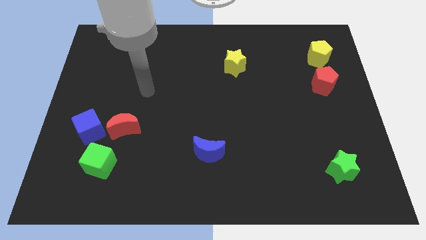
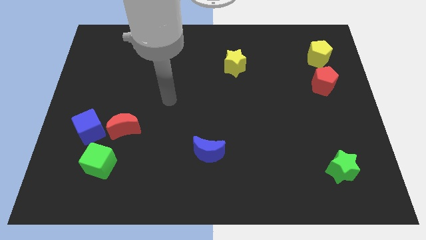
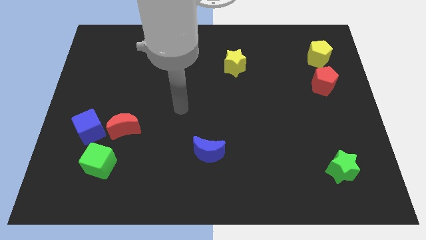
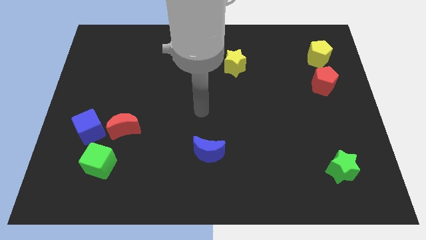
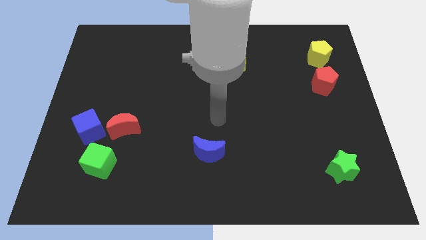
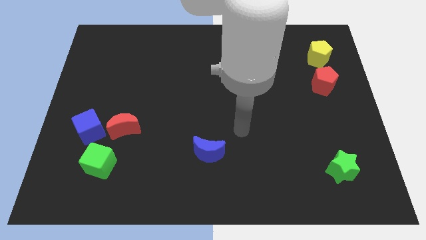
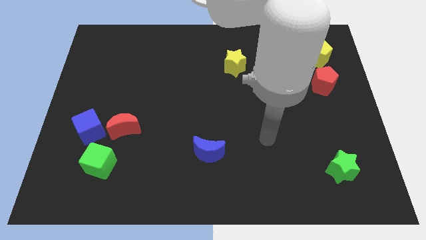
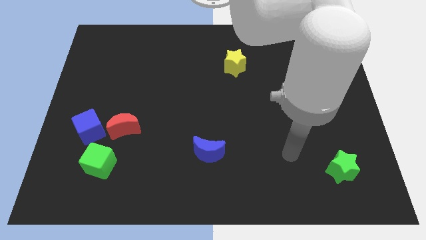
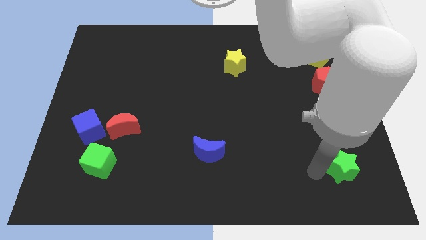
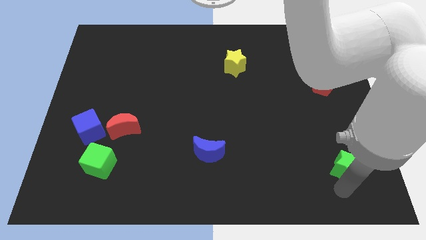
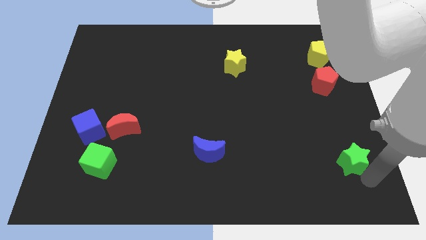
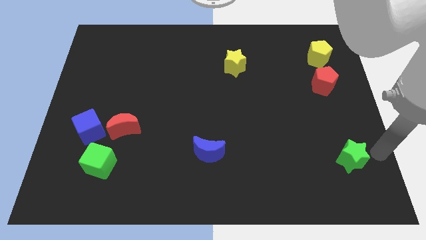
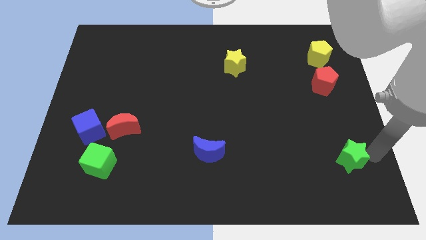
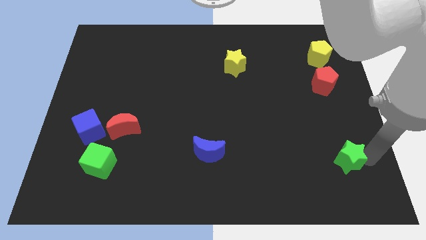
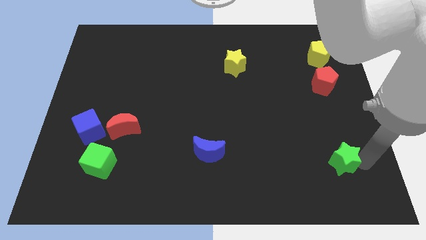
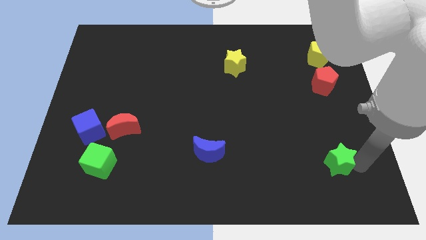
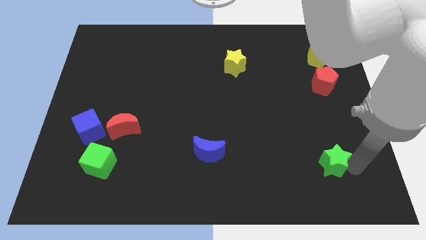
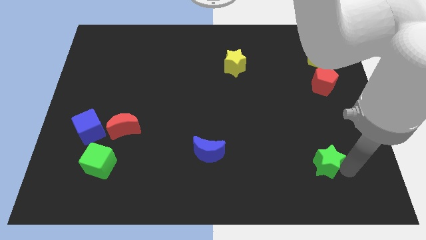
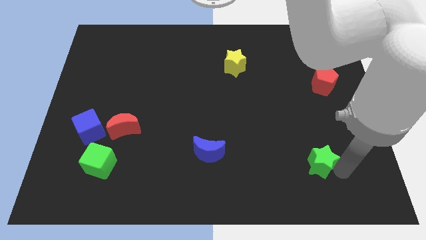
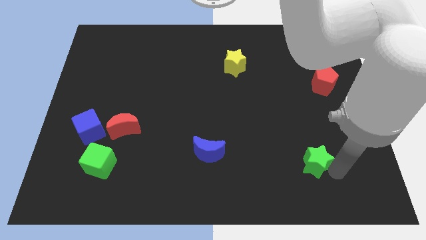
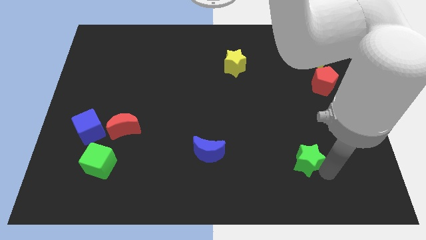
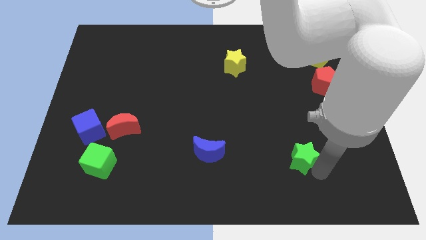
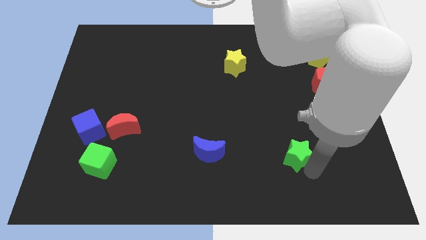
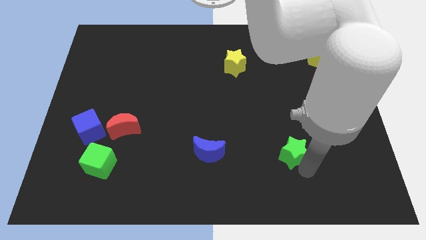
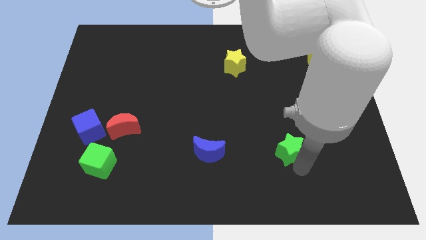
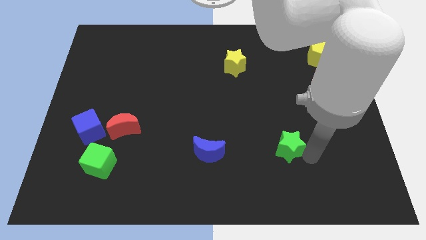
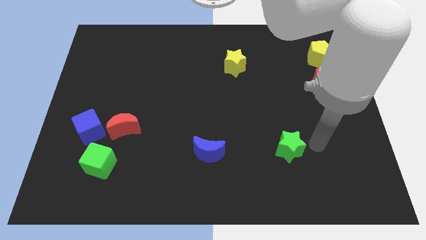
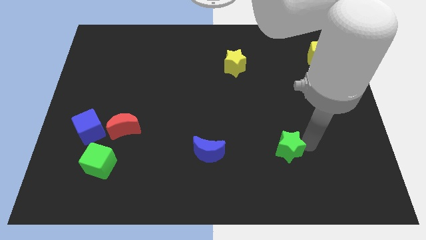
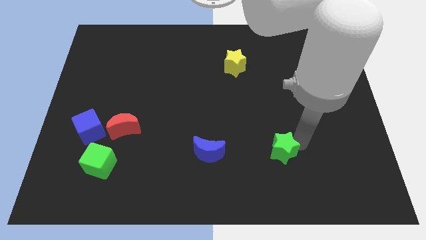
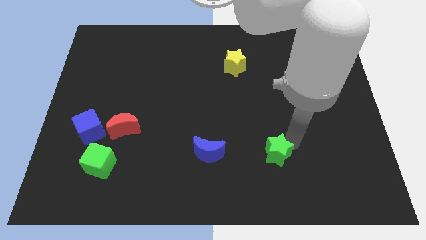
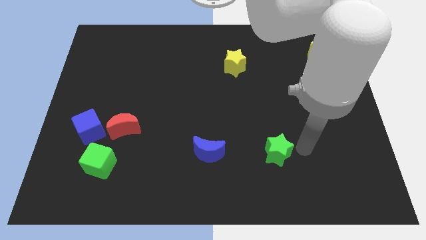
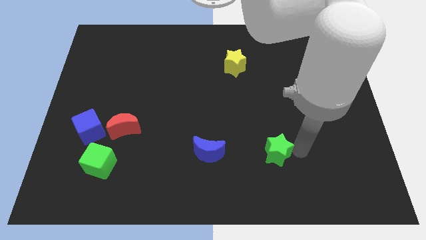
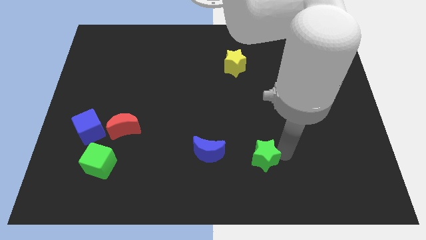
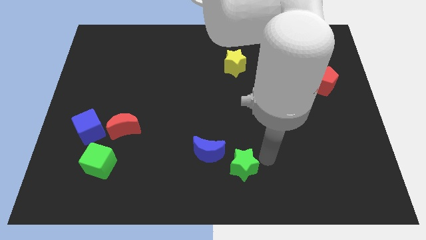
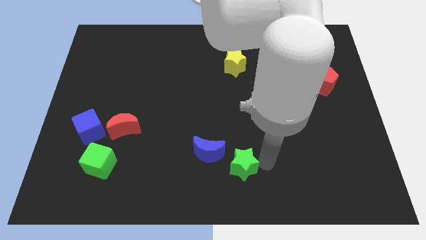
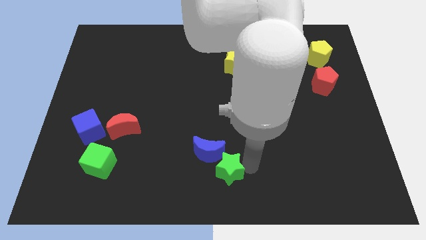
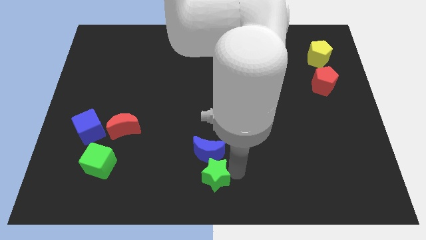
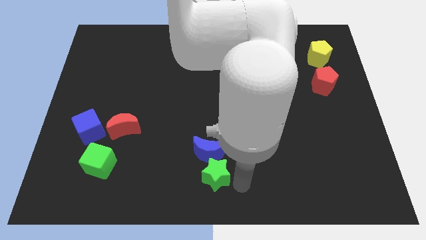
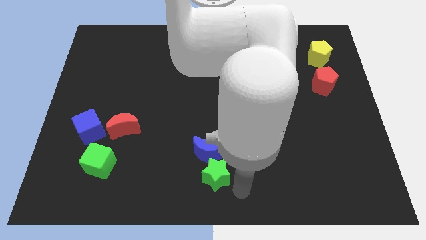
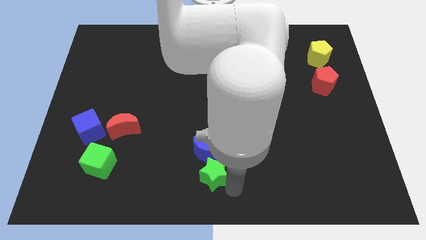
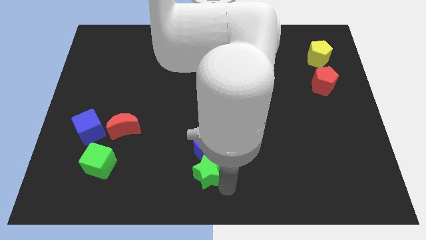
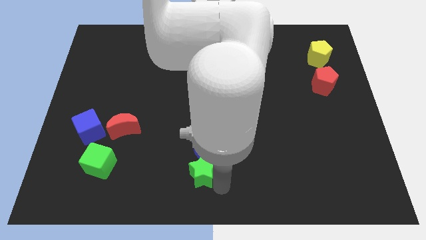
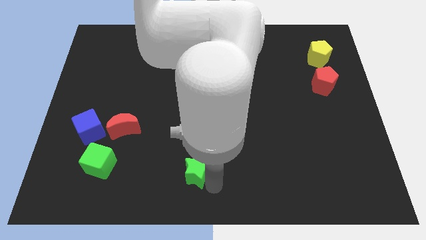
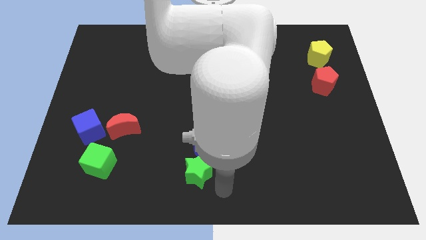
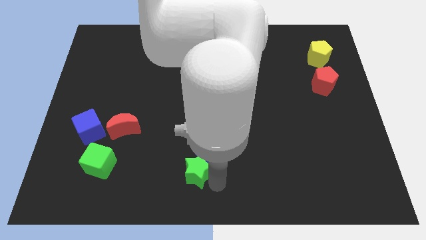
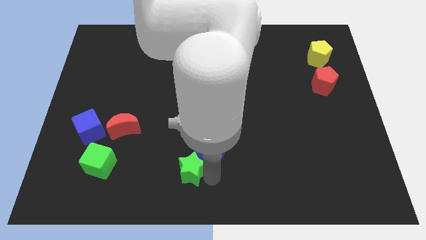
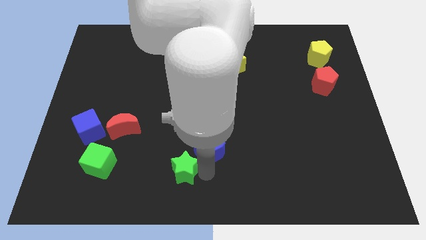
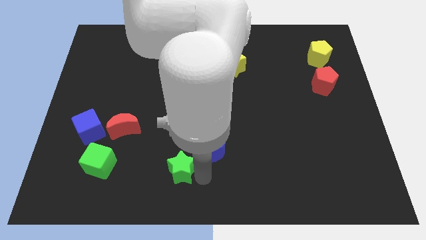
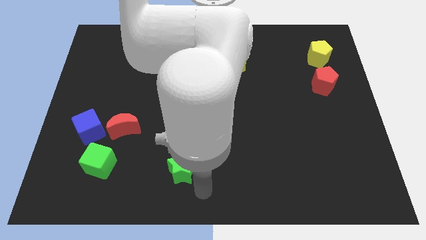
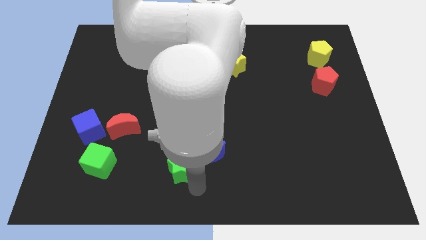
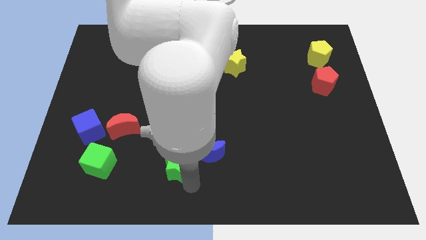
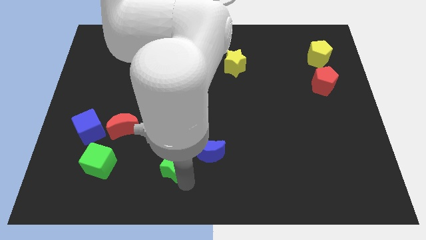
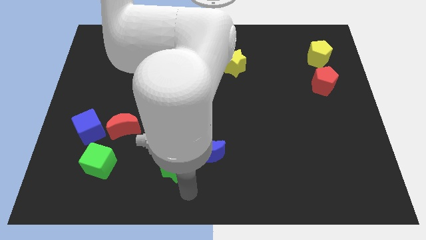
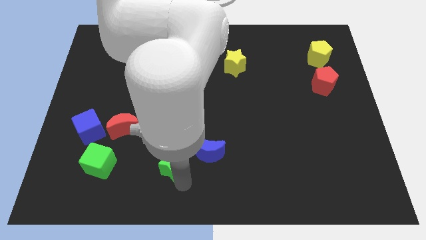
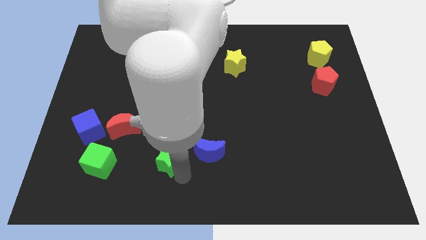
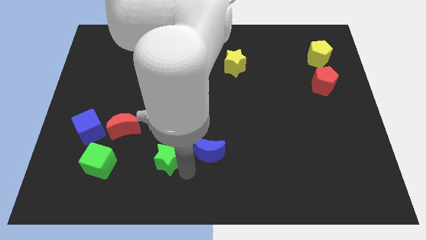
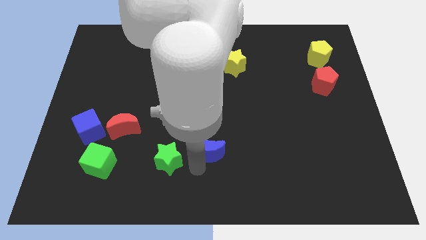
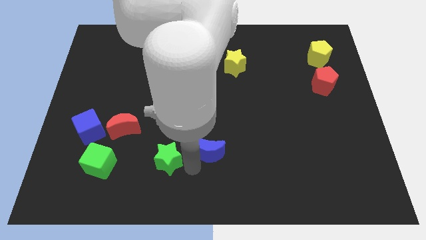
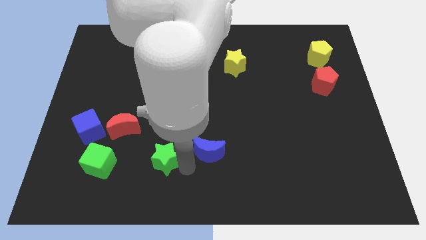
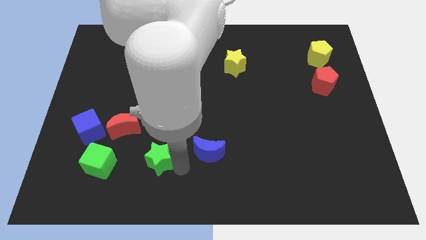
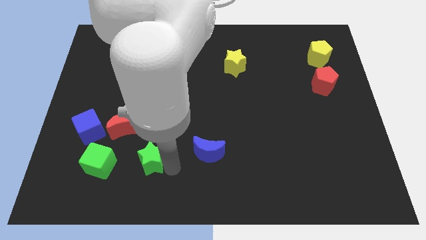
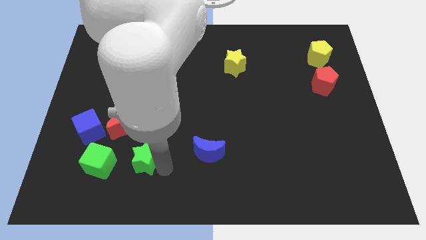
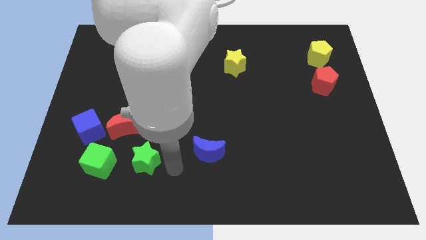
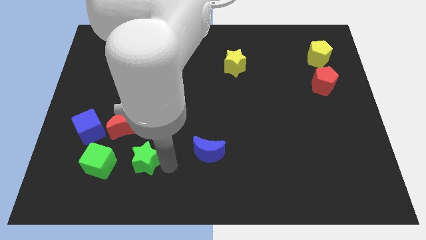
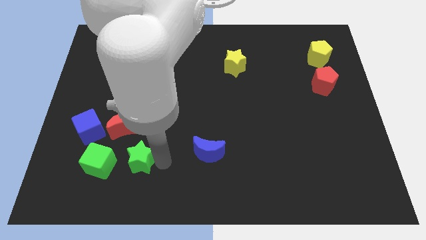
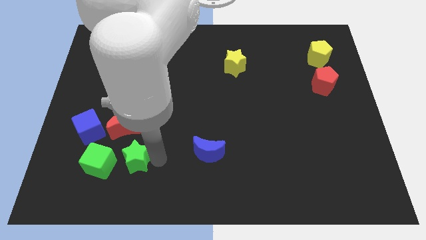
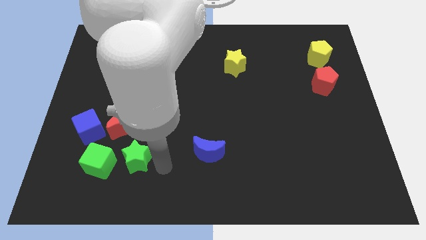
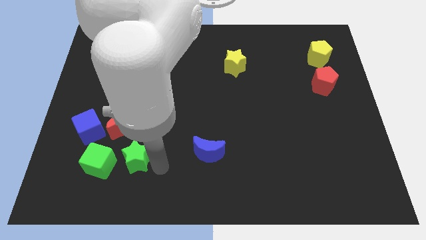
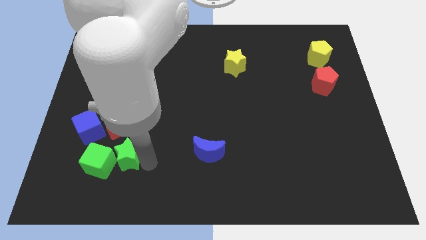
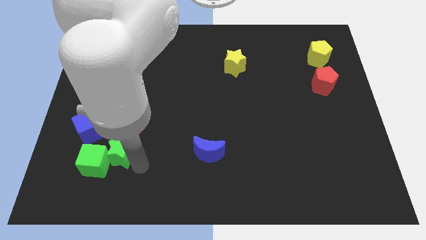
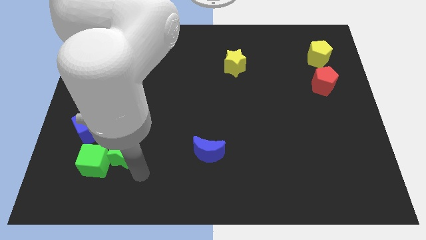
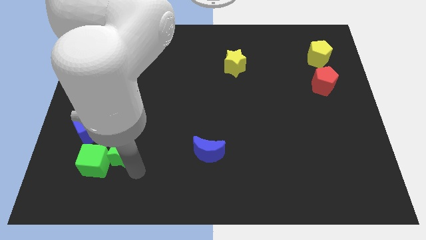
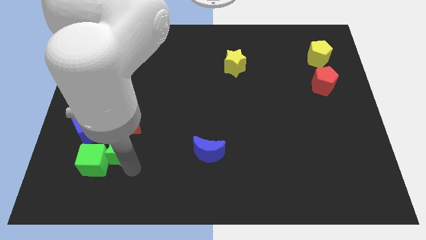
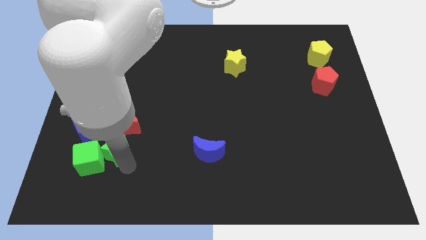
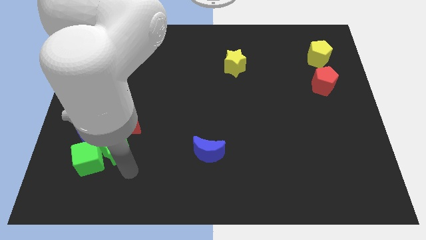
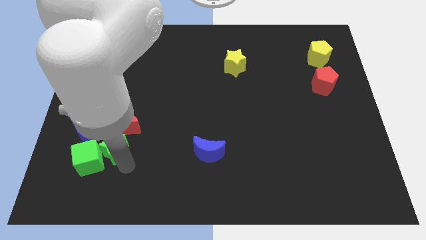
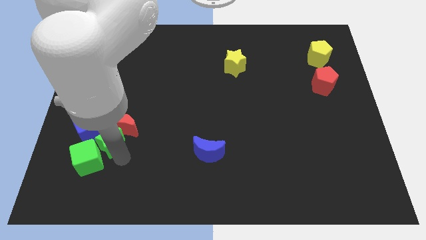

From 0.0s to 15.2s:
slide the green star to the top of the green cube
